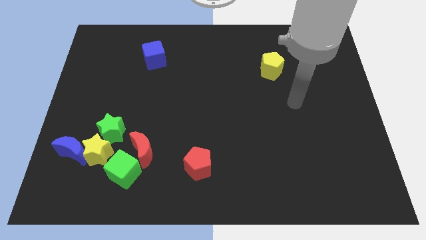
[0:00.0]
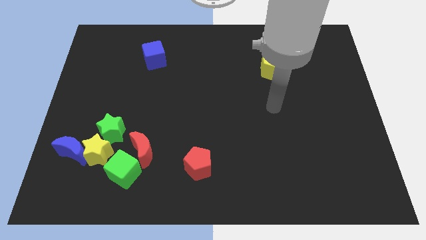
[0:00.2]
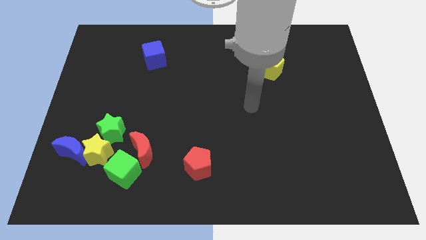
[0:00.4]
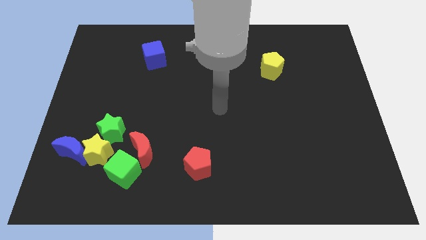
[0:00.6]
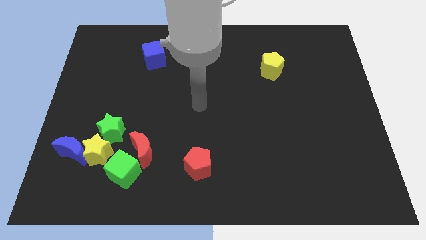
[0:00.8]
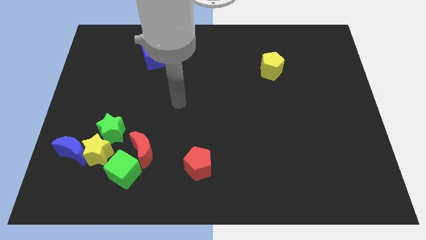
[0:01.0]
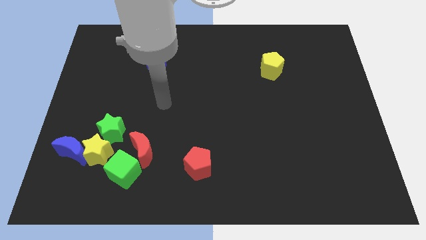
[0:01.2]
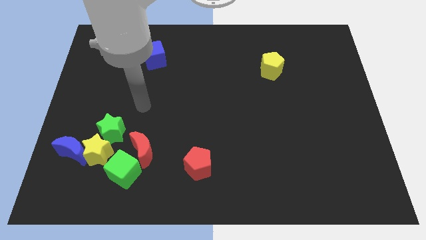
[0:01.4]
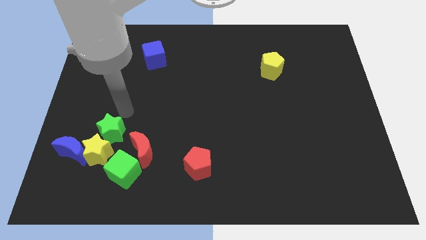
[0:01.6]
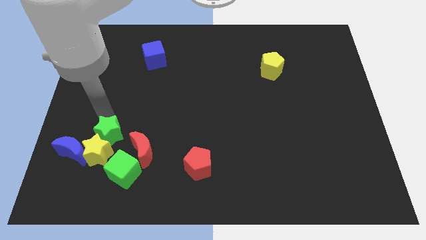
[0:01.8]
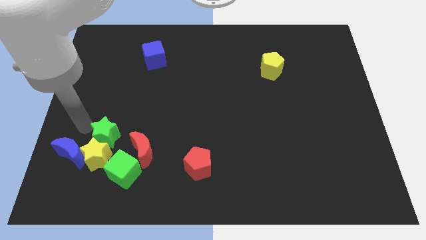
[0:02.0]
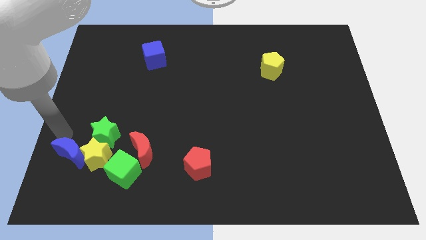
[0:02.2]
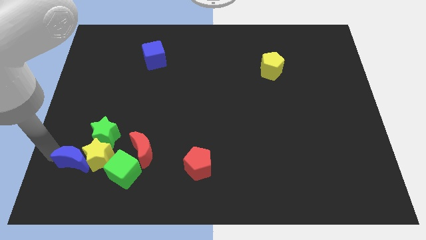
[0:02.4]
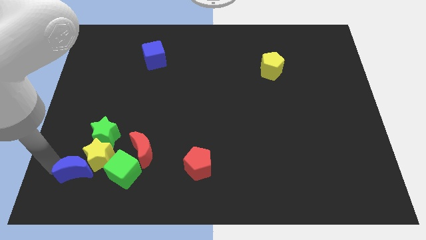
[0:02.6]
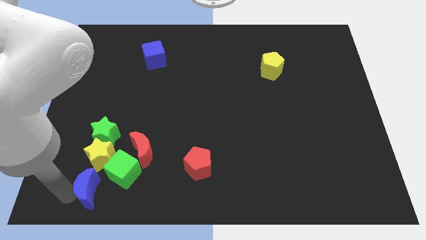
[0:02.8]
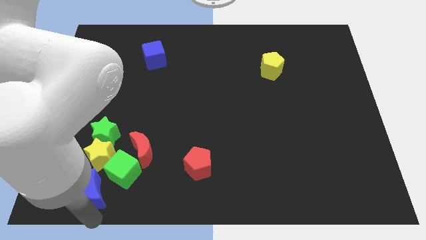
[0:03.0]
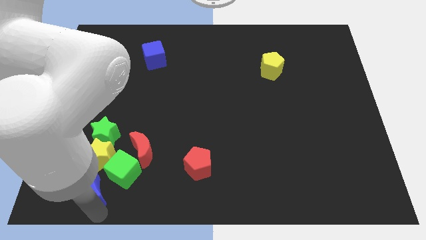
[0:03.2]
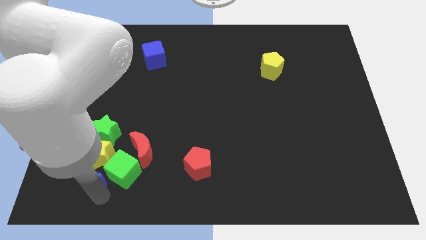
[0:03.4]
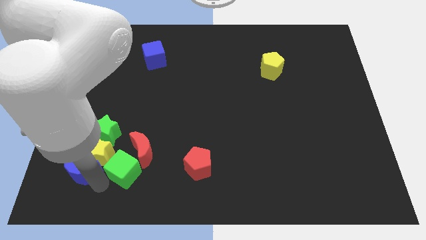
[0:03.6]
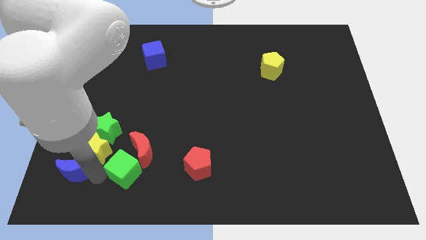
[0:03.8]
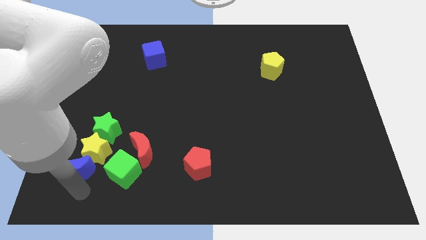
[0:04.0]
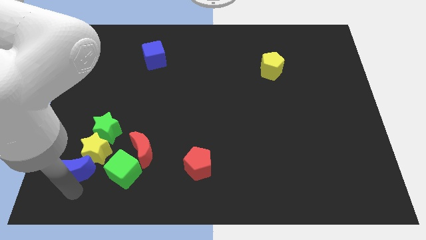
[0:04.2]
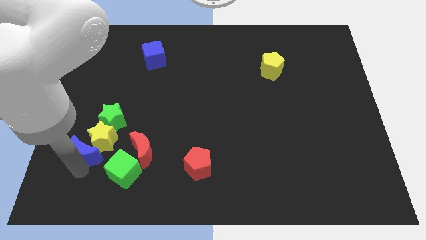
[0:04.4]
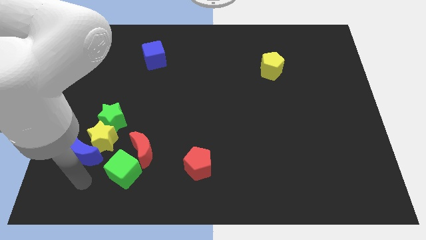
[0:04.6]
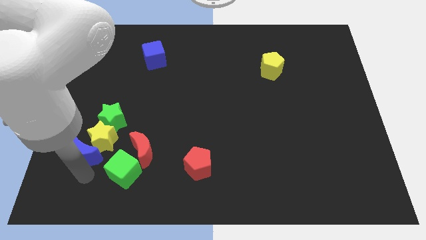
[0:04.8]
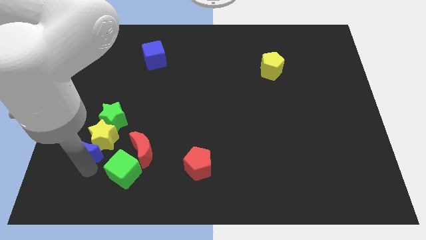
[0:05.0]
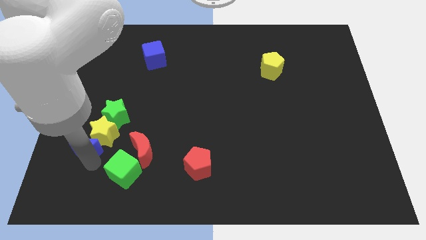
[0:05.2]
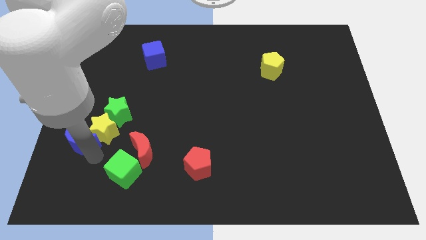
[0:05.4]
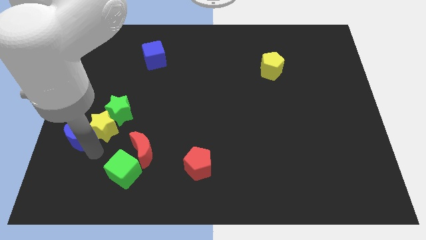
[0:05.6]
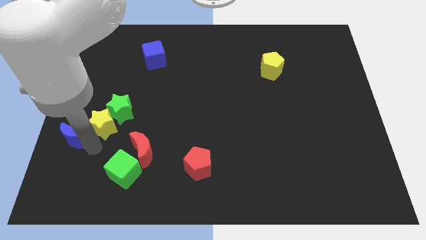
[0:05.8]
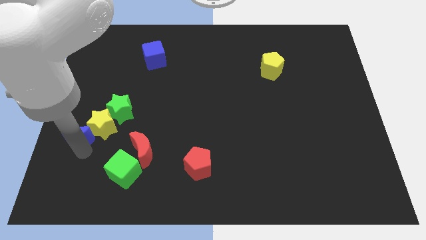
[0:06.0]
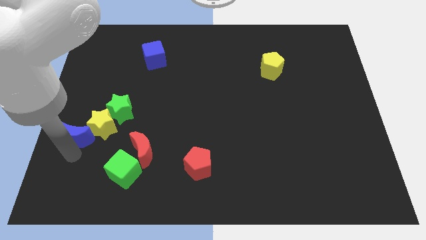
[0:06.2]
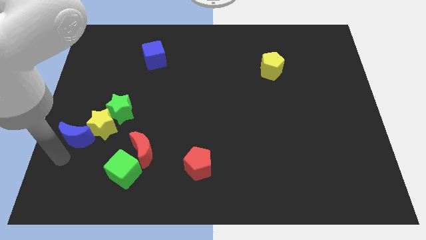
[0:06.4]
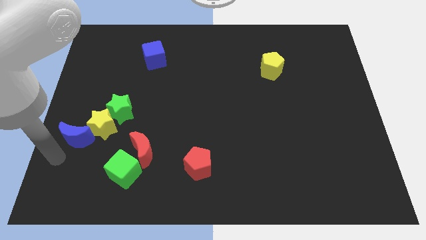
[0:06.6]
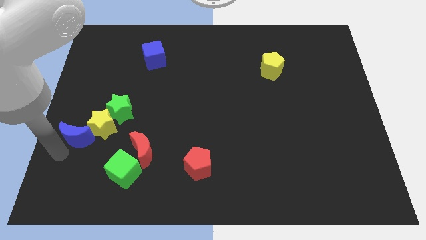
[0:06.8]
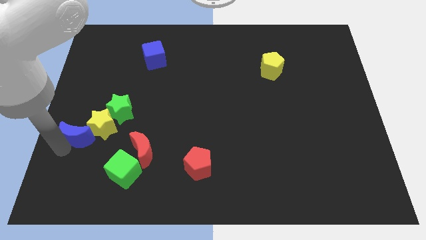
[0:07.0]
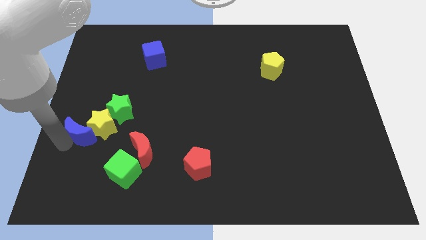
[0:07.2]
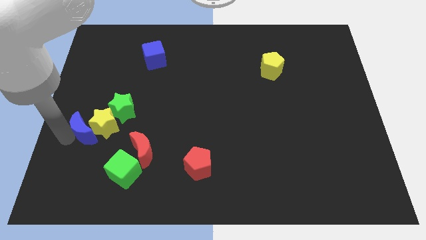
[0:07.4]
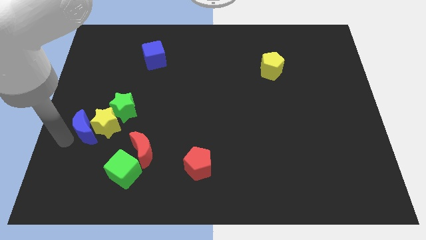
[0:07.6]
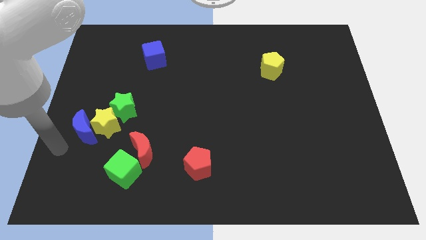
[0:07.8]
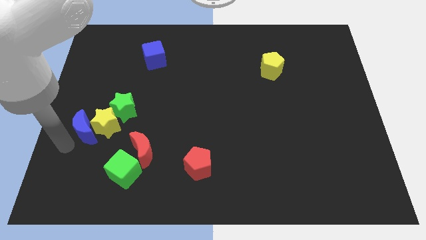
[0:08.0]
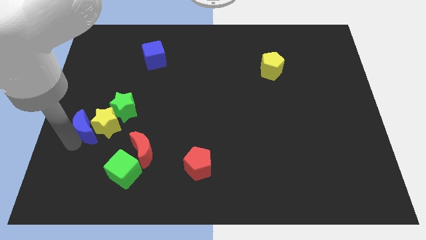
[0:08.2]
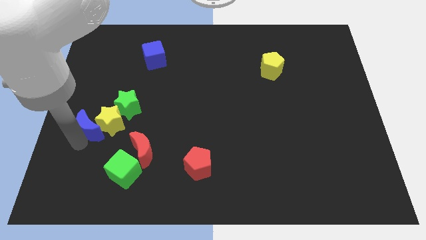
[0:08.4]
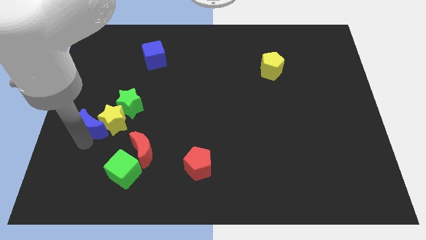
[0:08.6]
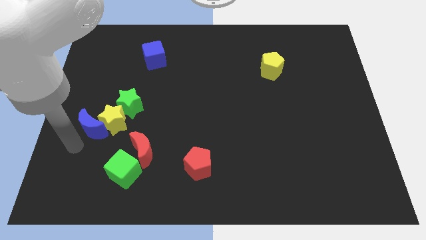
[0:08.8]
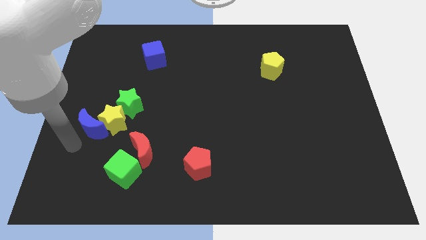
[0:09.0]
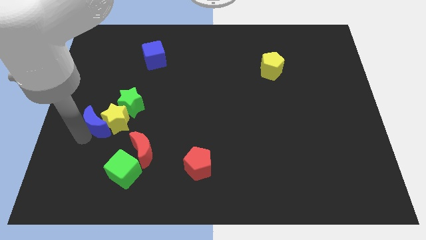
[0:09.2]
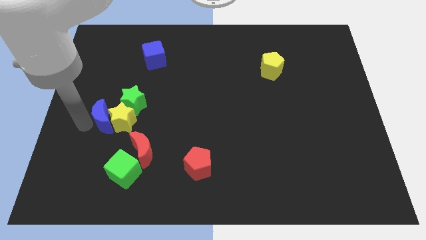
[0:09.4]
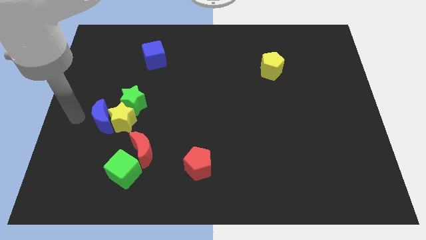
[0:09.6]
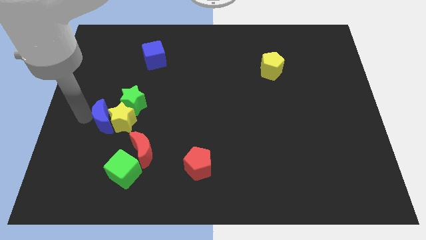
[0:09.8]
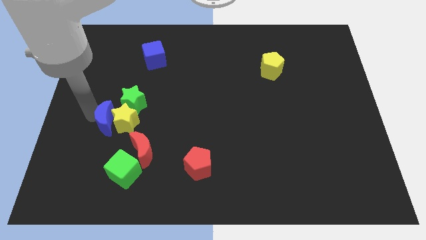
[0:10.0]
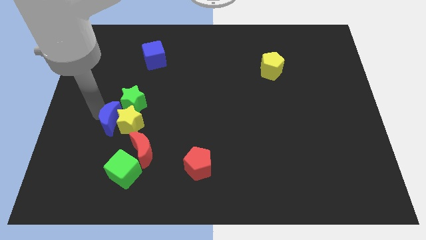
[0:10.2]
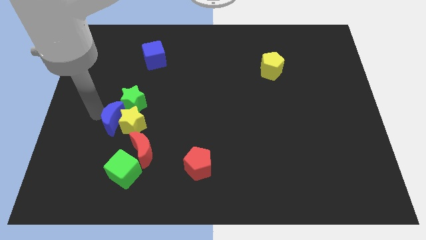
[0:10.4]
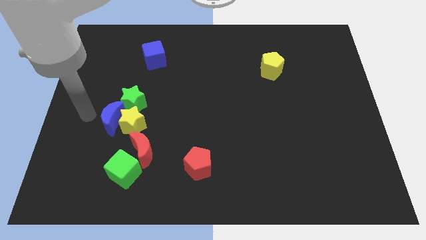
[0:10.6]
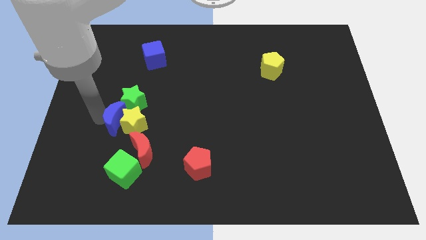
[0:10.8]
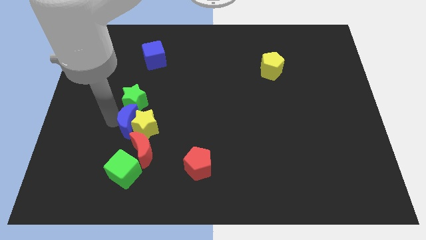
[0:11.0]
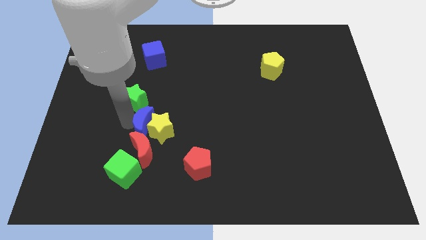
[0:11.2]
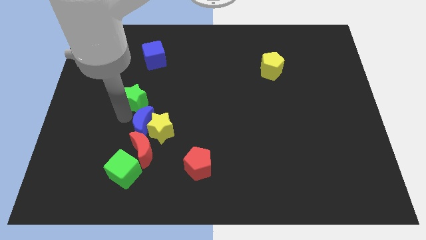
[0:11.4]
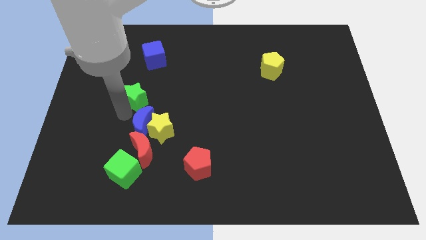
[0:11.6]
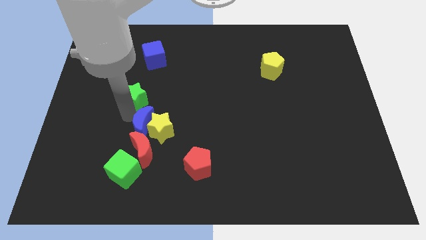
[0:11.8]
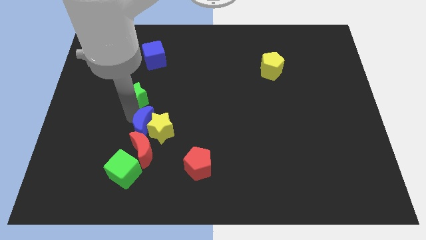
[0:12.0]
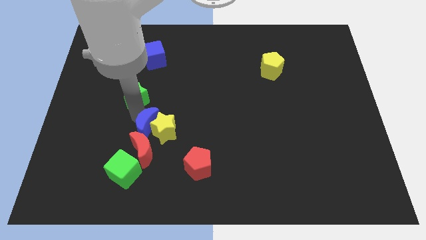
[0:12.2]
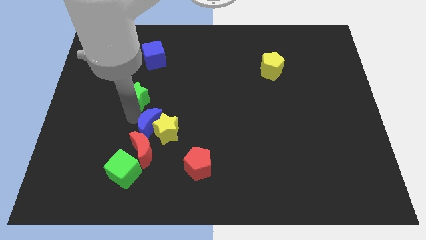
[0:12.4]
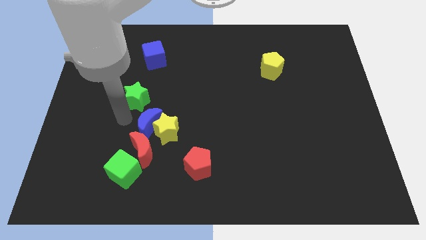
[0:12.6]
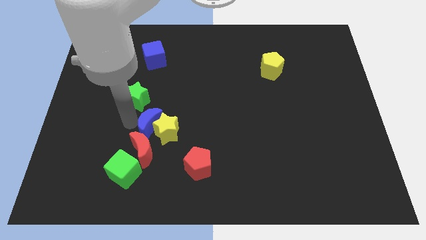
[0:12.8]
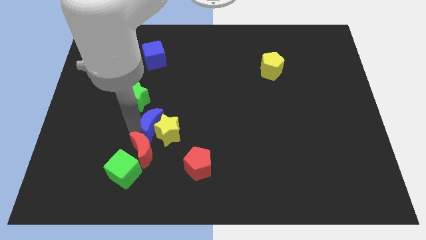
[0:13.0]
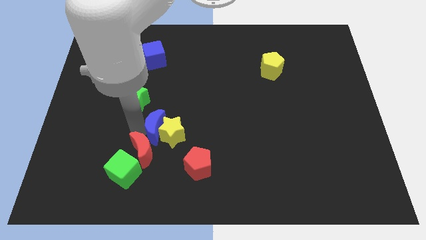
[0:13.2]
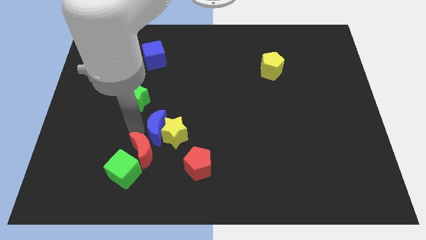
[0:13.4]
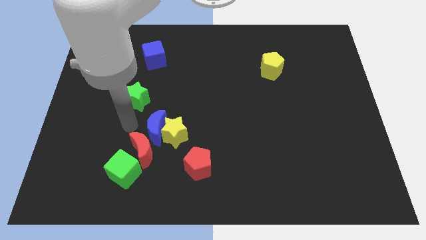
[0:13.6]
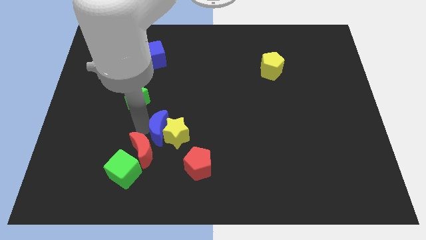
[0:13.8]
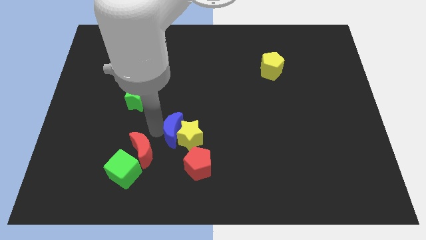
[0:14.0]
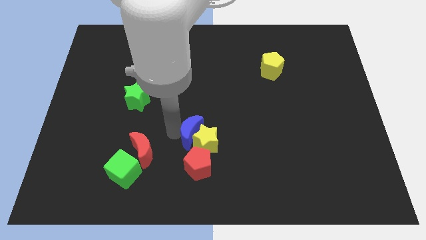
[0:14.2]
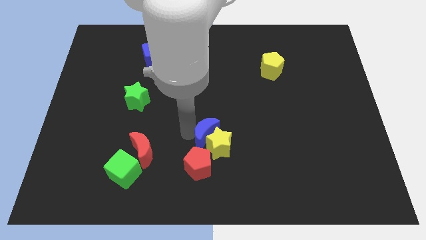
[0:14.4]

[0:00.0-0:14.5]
put the blue moon diagonally up and to the right of the red pentagon

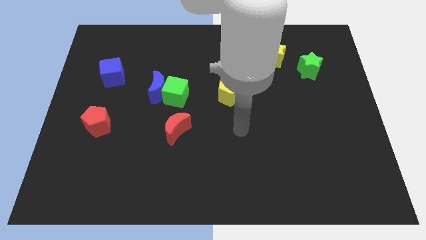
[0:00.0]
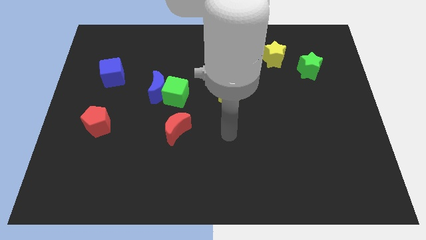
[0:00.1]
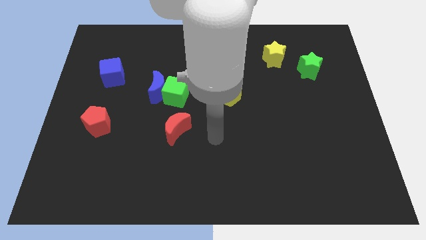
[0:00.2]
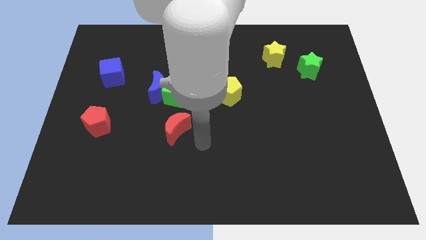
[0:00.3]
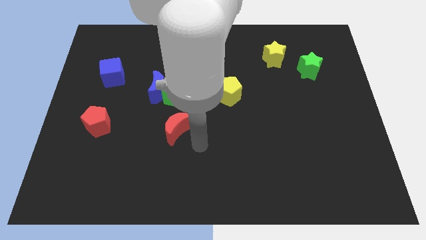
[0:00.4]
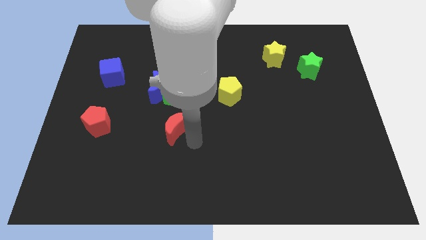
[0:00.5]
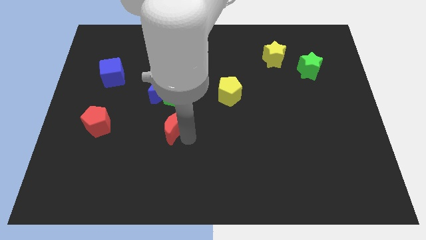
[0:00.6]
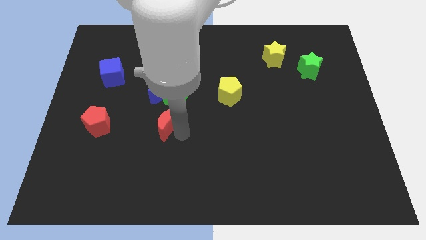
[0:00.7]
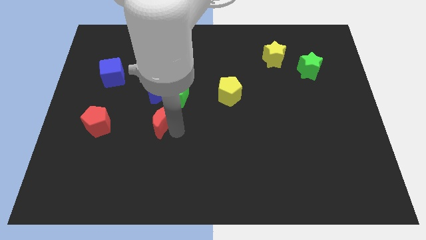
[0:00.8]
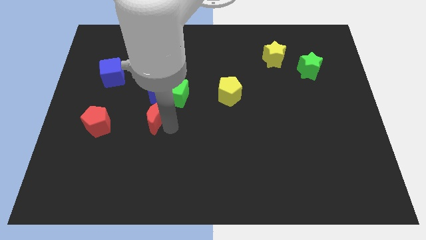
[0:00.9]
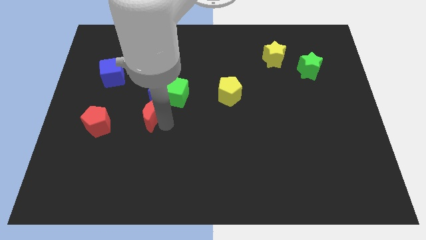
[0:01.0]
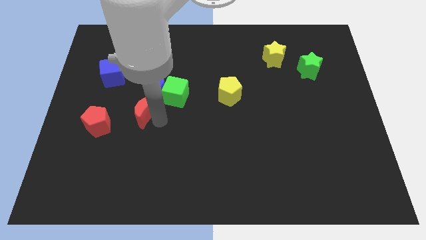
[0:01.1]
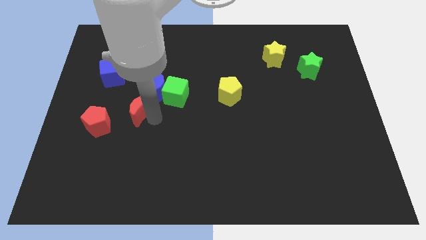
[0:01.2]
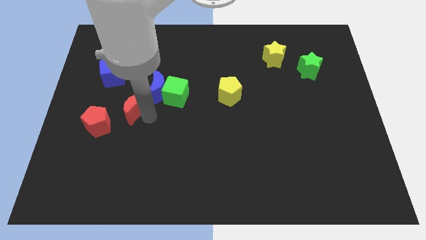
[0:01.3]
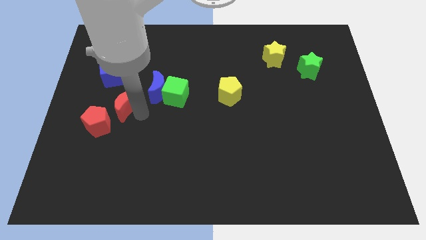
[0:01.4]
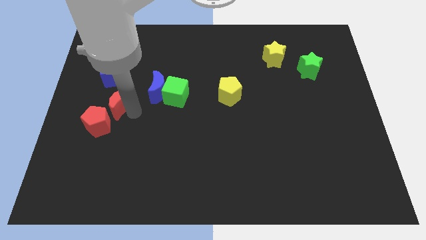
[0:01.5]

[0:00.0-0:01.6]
move the red moon left of the blue moon
